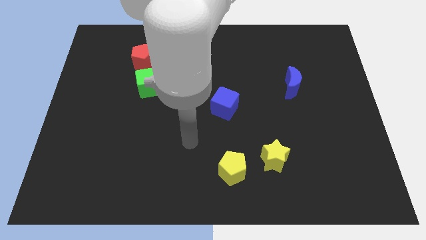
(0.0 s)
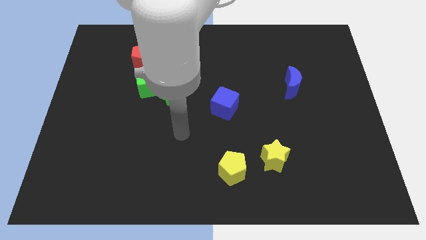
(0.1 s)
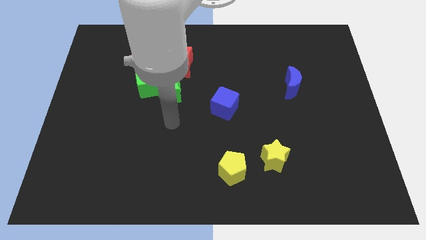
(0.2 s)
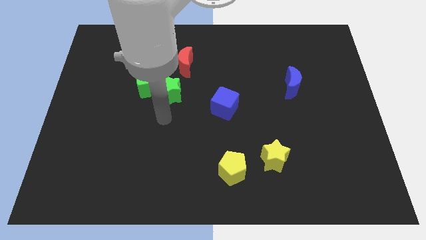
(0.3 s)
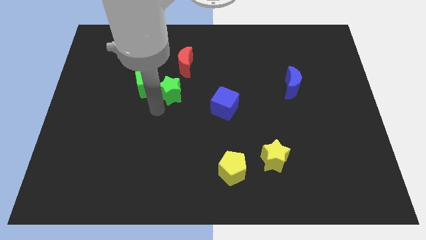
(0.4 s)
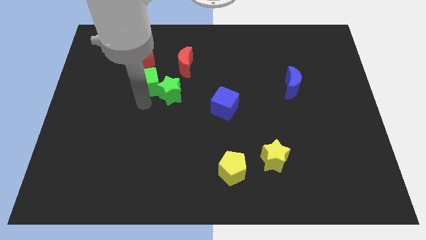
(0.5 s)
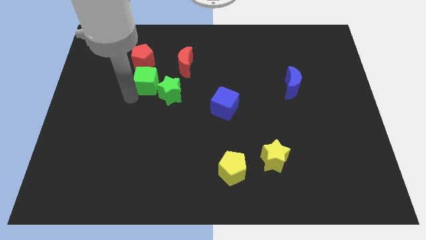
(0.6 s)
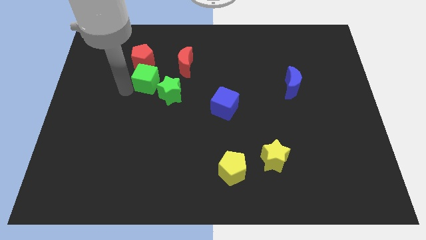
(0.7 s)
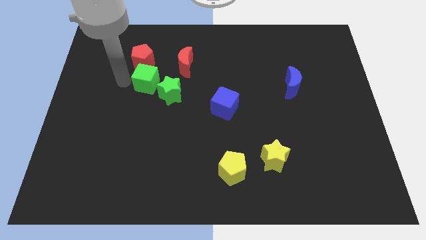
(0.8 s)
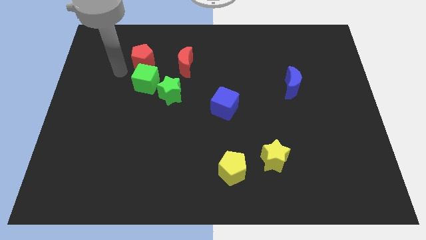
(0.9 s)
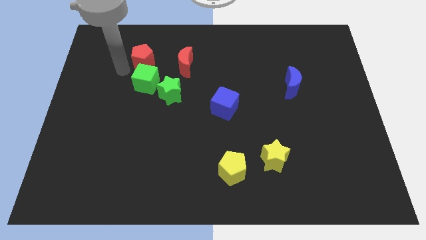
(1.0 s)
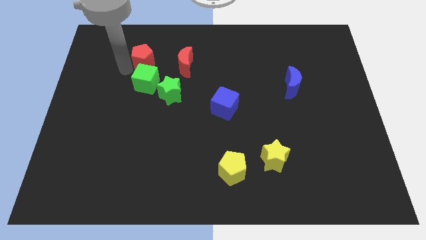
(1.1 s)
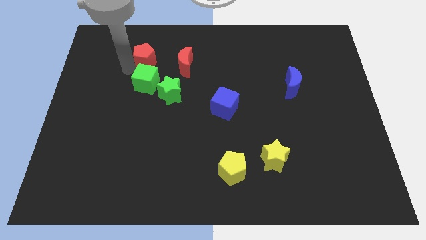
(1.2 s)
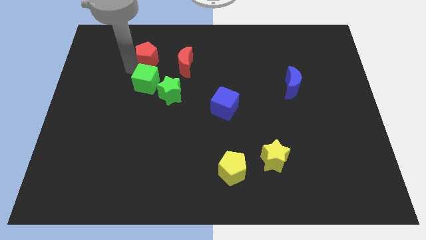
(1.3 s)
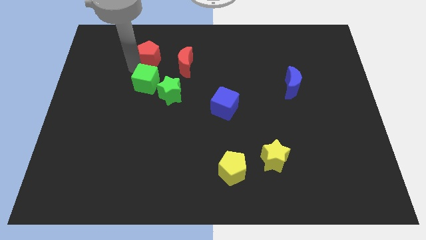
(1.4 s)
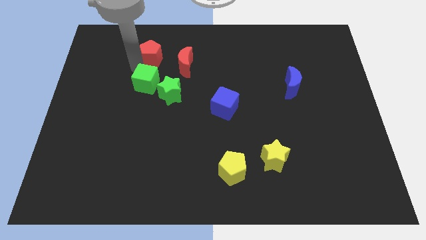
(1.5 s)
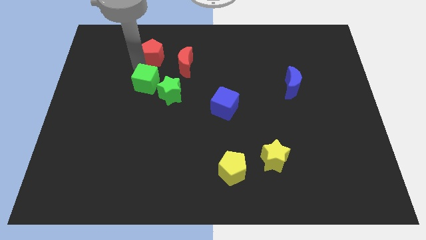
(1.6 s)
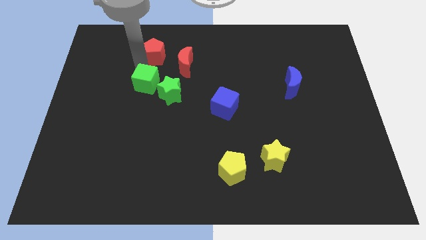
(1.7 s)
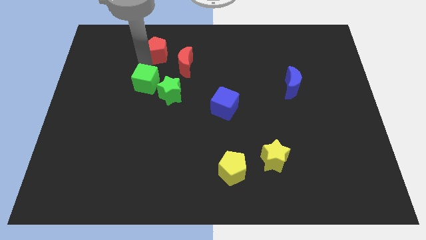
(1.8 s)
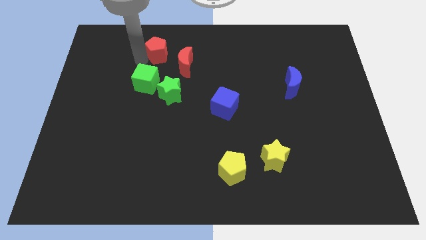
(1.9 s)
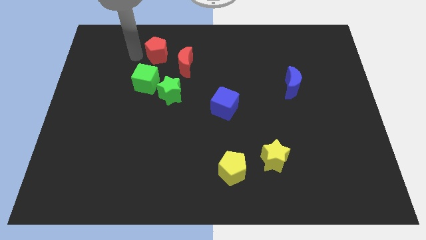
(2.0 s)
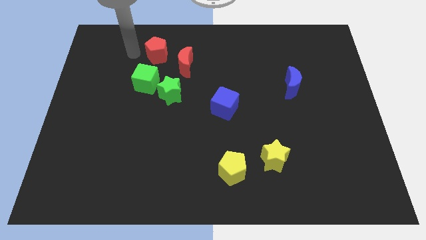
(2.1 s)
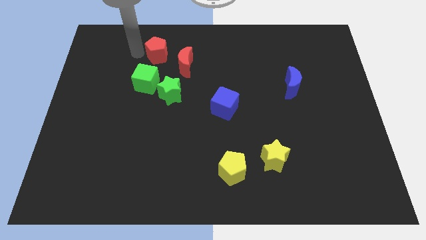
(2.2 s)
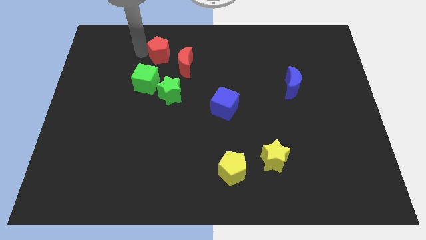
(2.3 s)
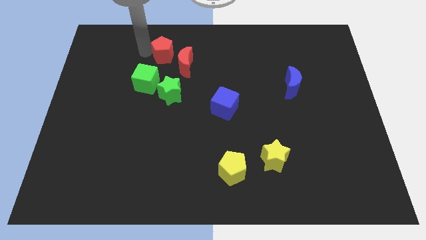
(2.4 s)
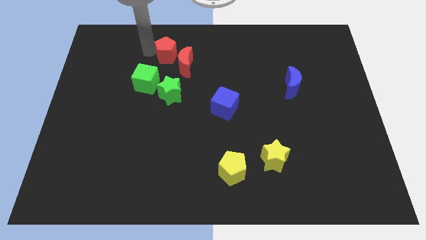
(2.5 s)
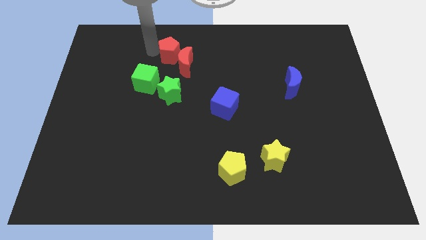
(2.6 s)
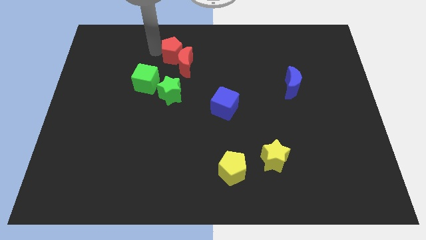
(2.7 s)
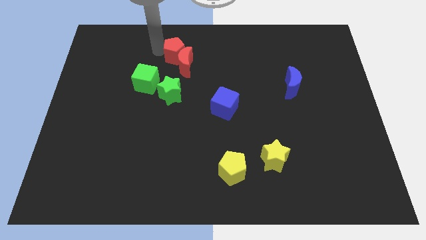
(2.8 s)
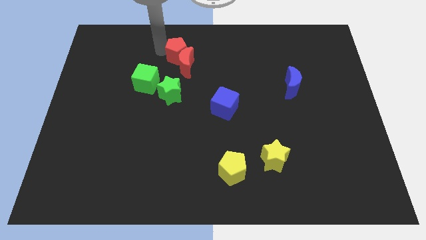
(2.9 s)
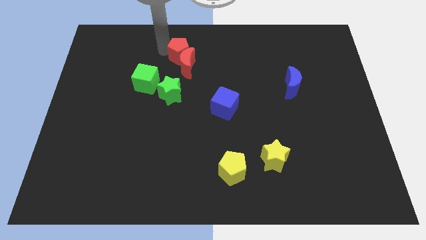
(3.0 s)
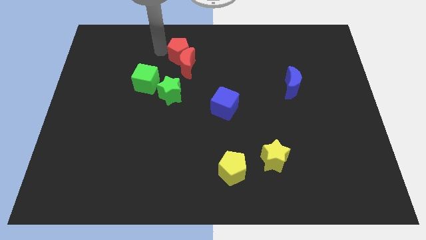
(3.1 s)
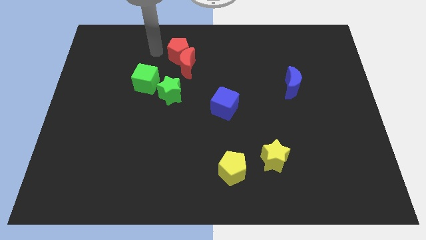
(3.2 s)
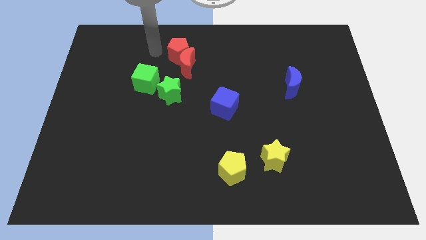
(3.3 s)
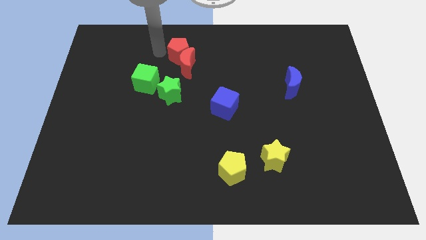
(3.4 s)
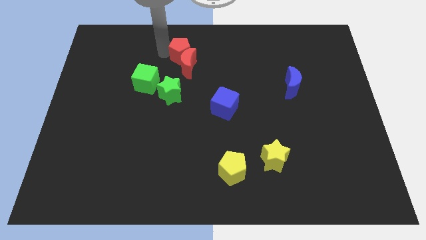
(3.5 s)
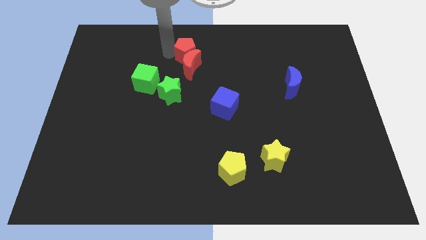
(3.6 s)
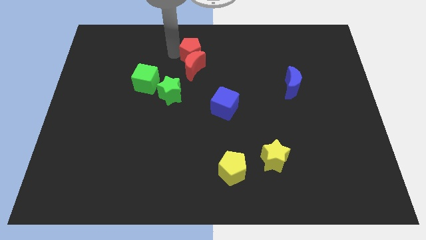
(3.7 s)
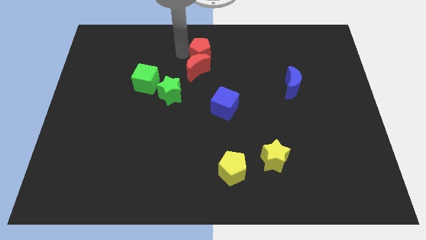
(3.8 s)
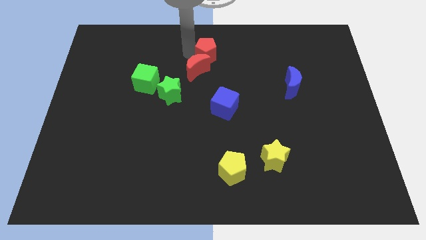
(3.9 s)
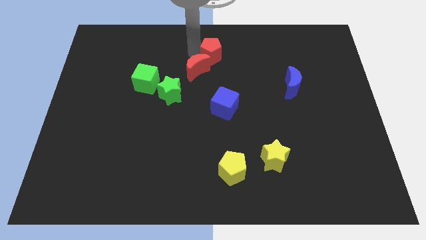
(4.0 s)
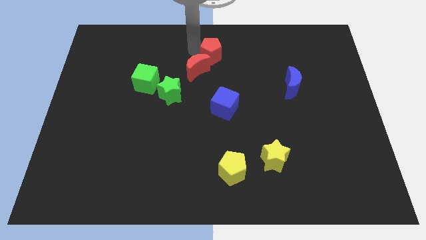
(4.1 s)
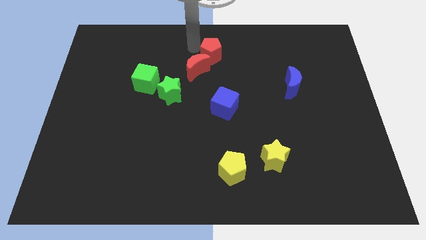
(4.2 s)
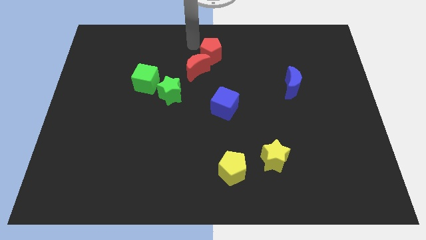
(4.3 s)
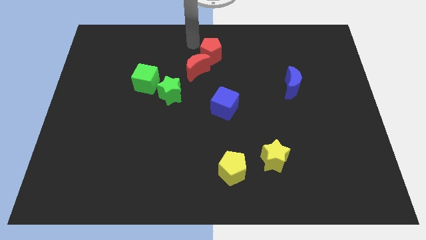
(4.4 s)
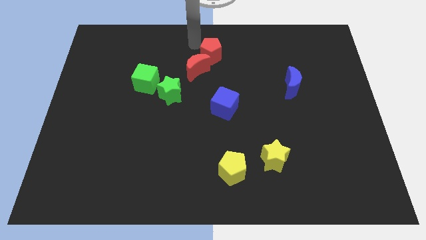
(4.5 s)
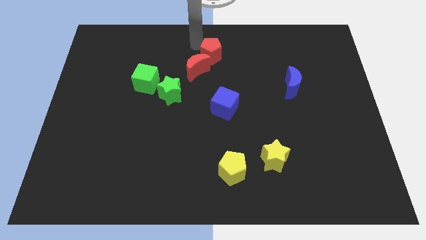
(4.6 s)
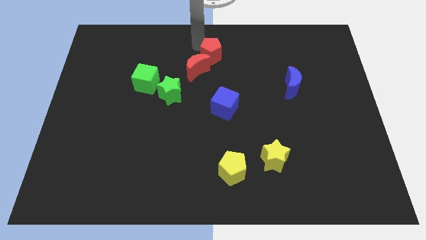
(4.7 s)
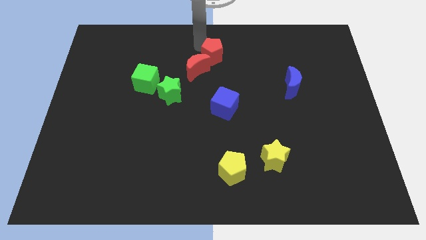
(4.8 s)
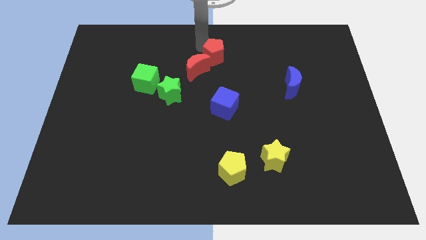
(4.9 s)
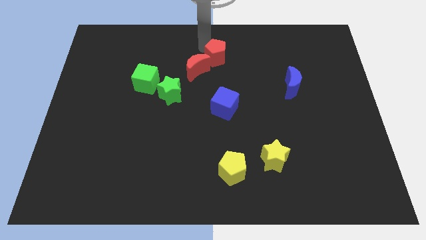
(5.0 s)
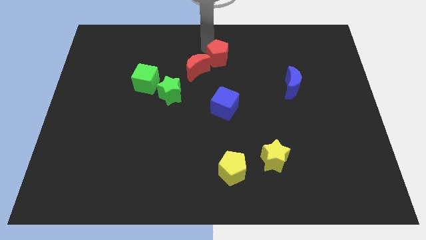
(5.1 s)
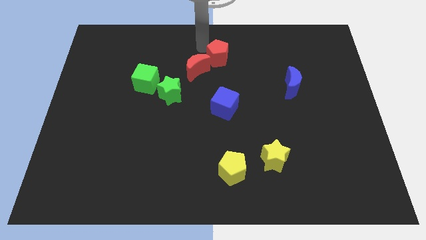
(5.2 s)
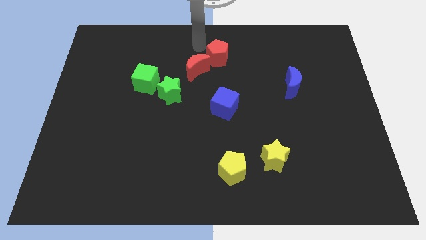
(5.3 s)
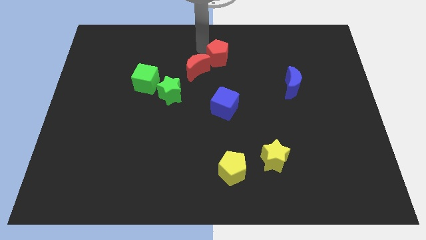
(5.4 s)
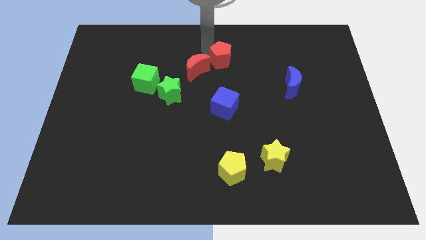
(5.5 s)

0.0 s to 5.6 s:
push the red pentagon right

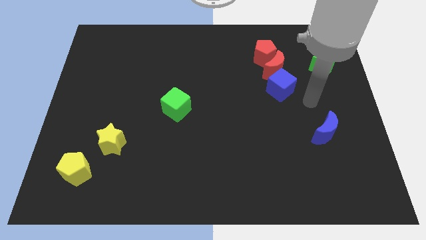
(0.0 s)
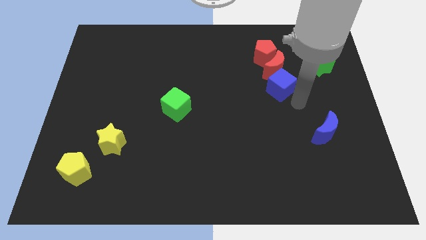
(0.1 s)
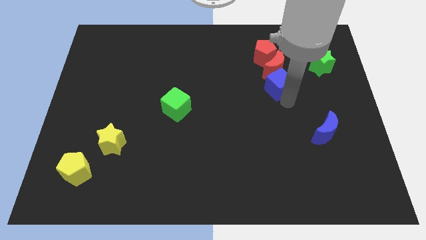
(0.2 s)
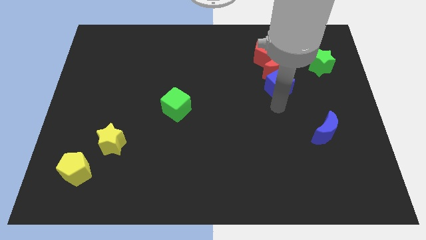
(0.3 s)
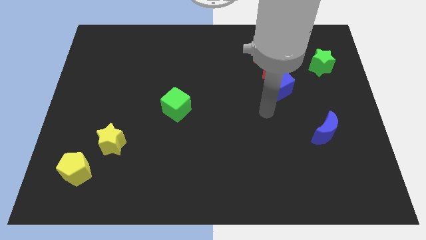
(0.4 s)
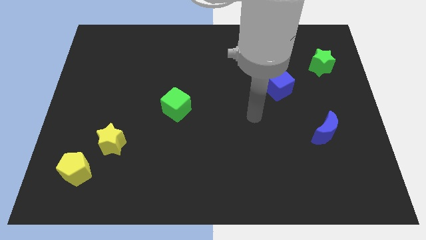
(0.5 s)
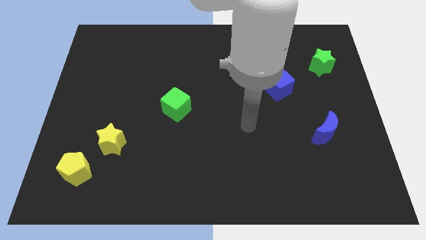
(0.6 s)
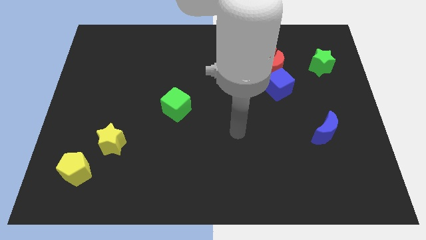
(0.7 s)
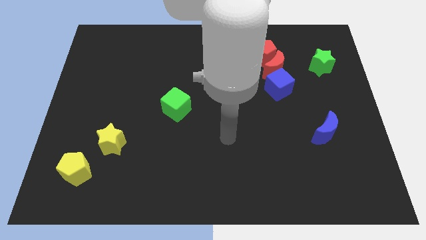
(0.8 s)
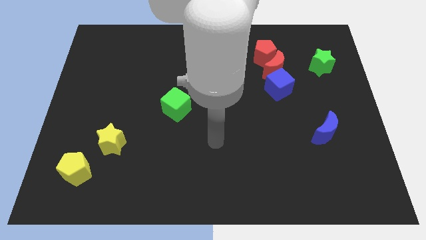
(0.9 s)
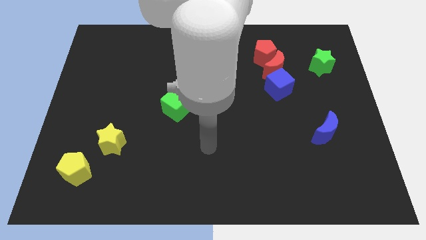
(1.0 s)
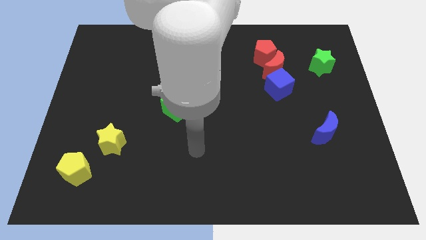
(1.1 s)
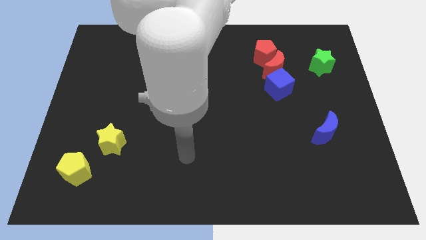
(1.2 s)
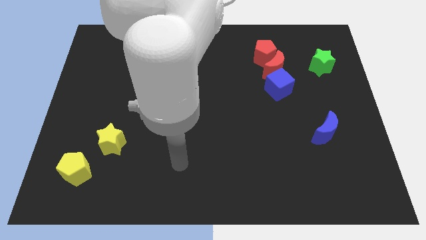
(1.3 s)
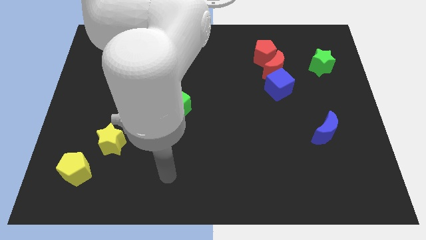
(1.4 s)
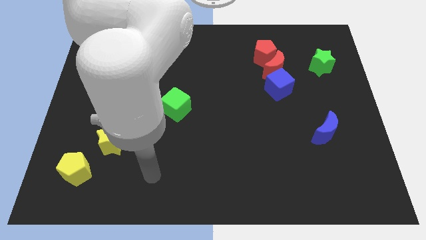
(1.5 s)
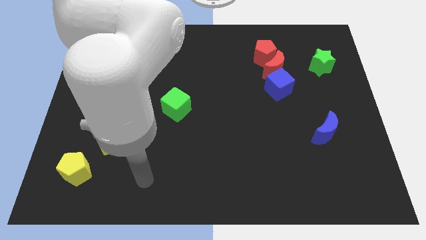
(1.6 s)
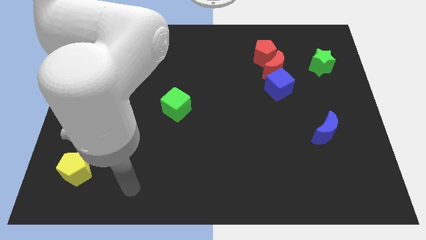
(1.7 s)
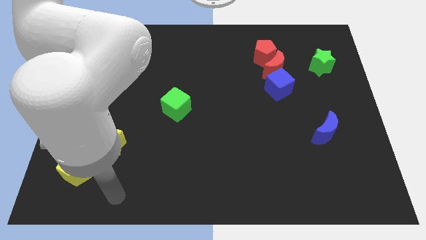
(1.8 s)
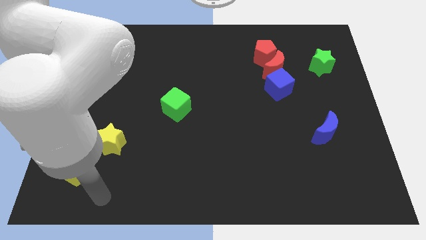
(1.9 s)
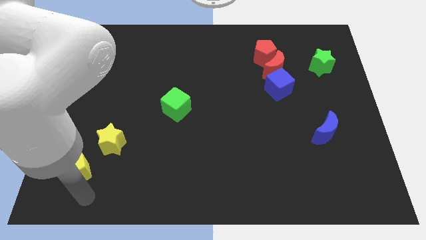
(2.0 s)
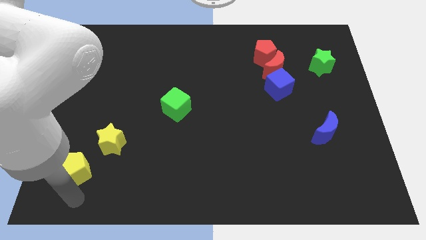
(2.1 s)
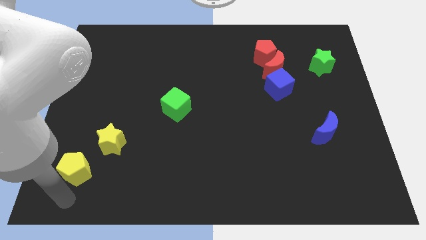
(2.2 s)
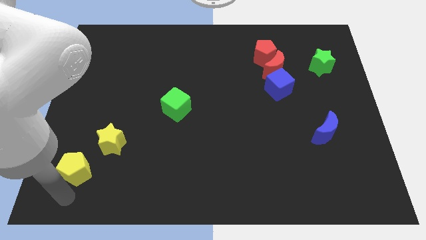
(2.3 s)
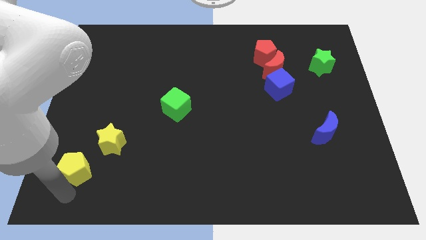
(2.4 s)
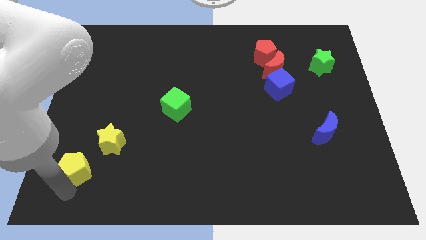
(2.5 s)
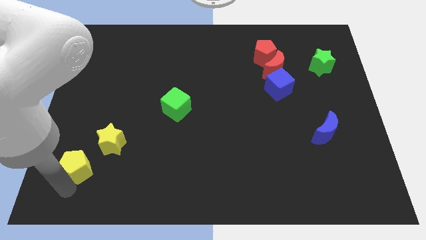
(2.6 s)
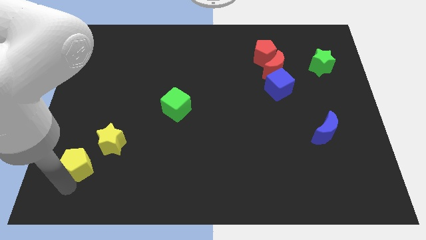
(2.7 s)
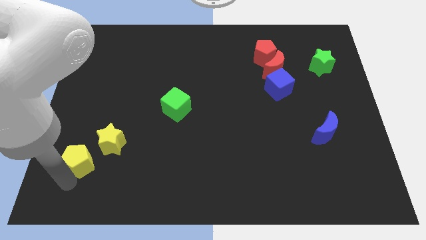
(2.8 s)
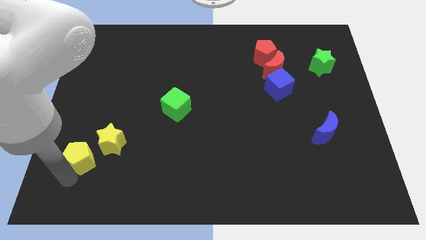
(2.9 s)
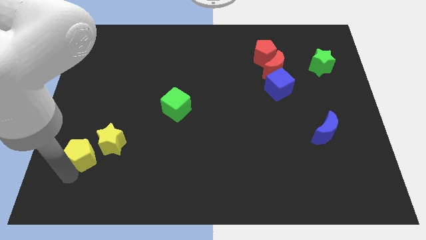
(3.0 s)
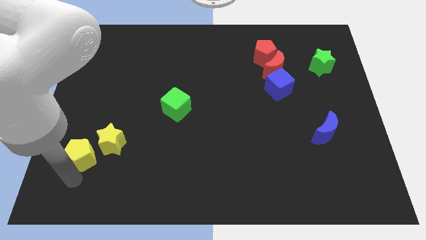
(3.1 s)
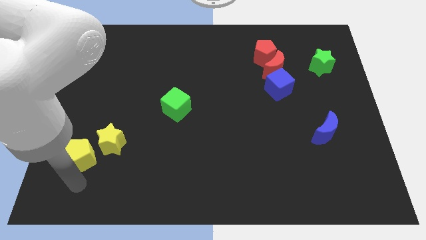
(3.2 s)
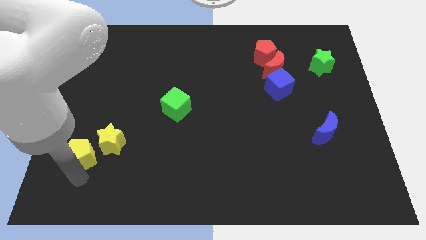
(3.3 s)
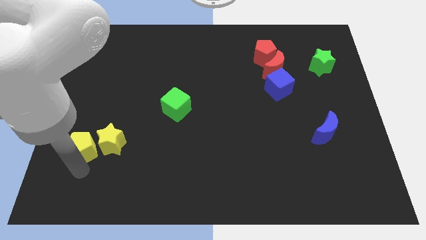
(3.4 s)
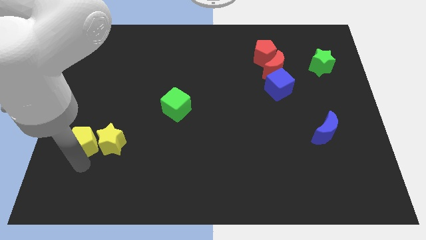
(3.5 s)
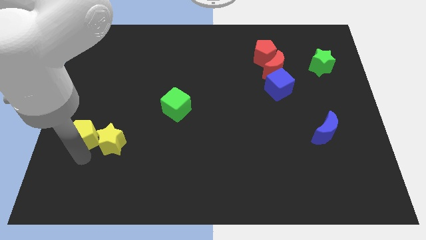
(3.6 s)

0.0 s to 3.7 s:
push the yellow pentagon slightly up
